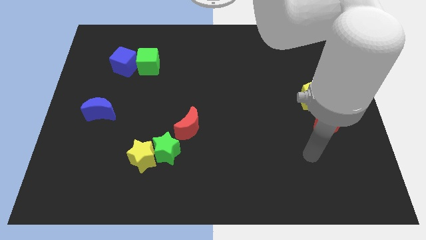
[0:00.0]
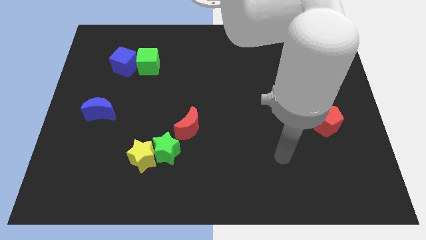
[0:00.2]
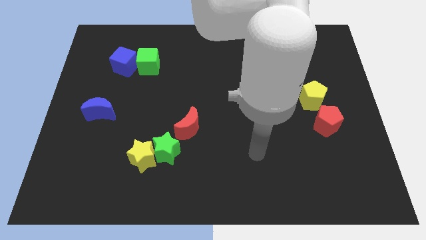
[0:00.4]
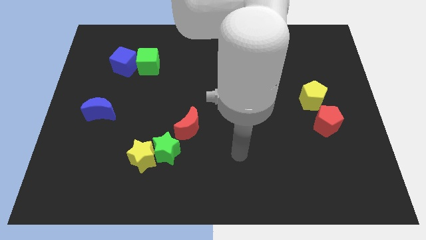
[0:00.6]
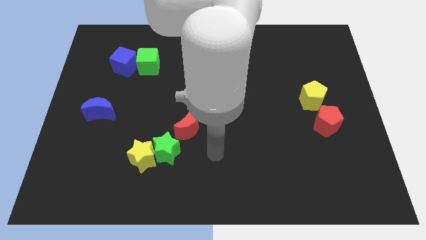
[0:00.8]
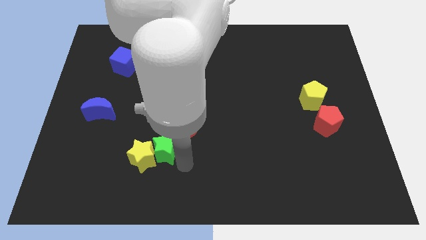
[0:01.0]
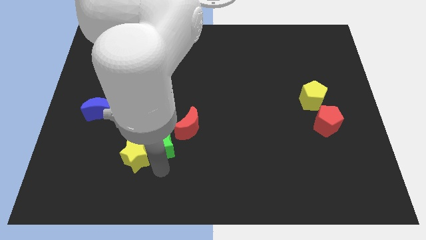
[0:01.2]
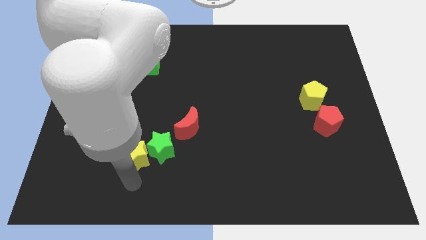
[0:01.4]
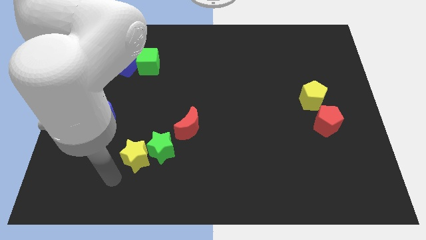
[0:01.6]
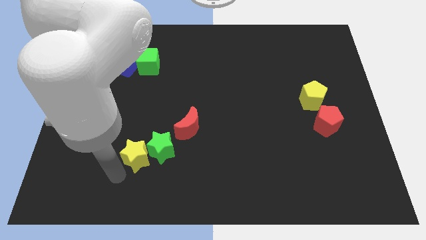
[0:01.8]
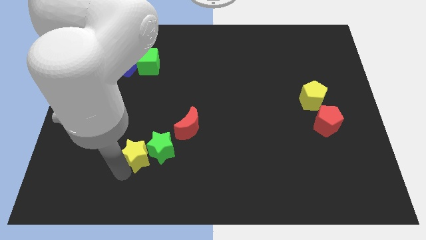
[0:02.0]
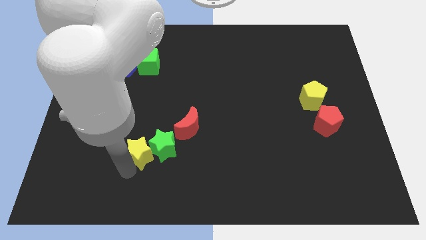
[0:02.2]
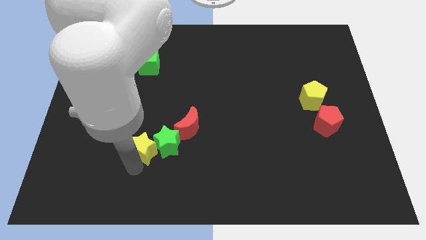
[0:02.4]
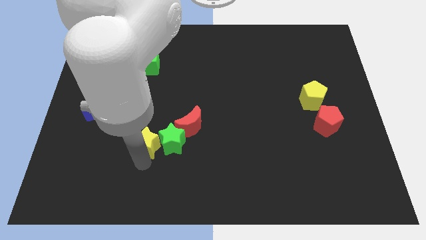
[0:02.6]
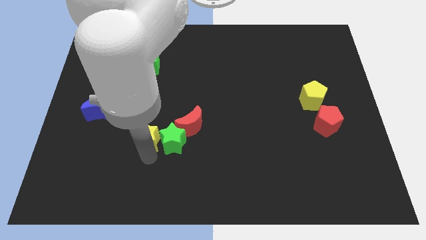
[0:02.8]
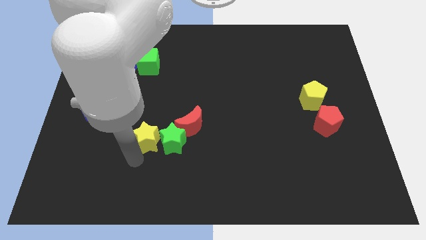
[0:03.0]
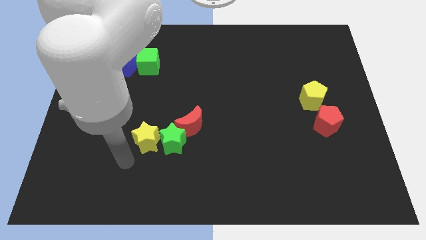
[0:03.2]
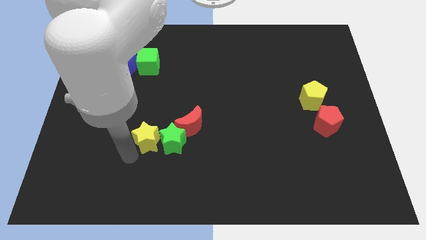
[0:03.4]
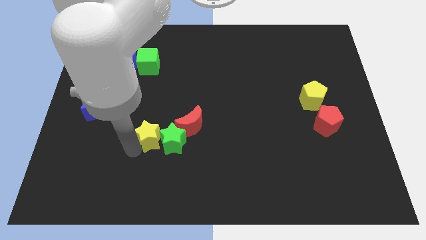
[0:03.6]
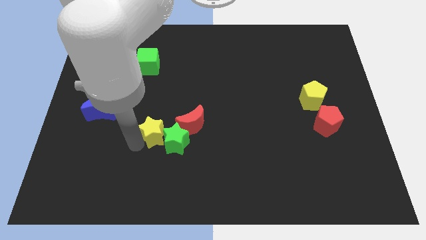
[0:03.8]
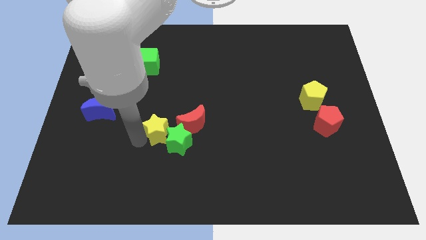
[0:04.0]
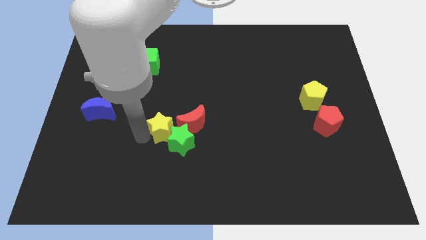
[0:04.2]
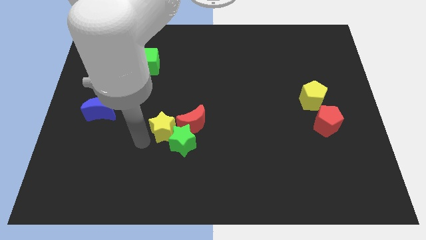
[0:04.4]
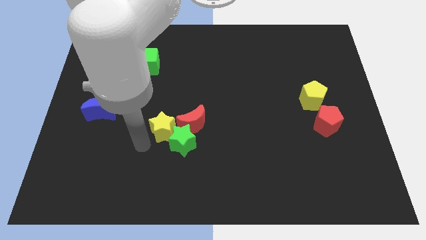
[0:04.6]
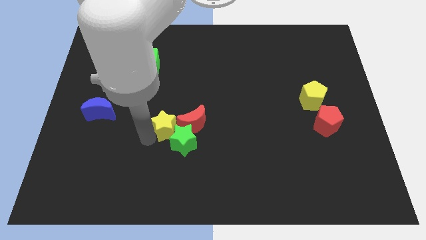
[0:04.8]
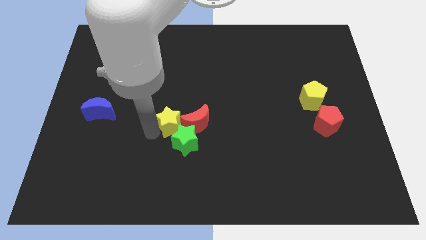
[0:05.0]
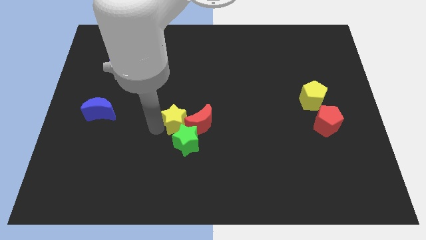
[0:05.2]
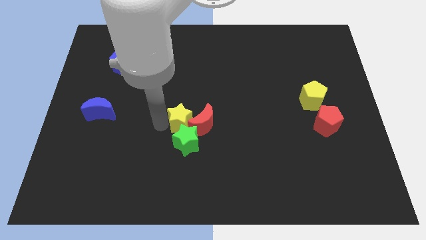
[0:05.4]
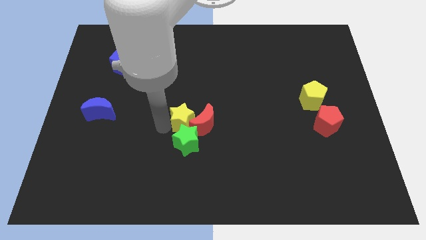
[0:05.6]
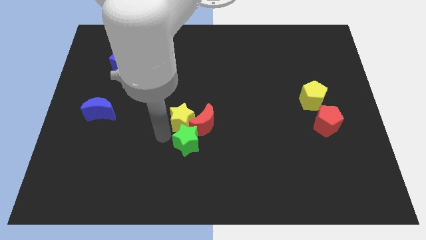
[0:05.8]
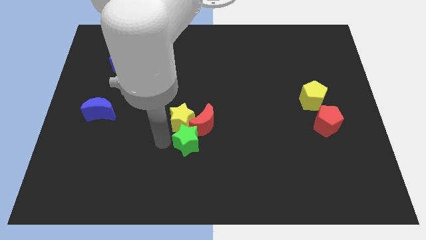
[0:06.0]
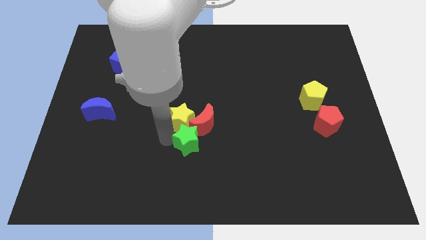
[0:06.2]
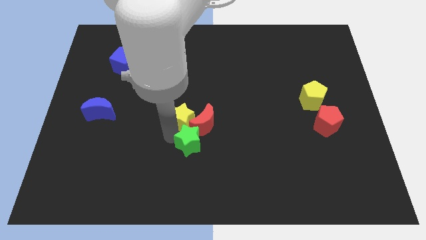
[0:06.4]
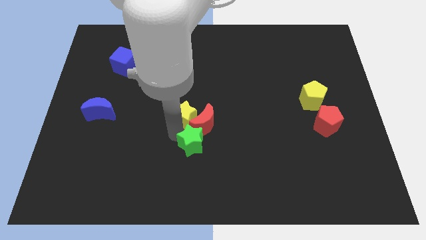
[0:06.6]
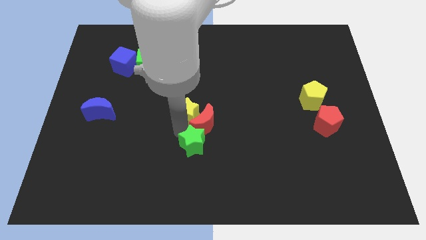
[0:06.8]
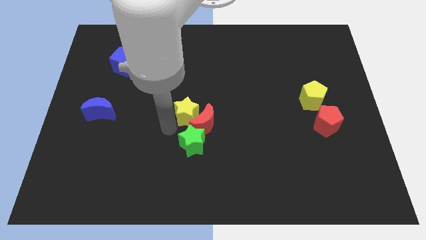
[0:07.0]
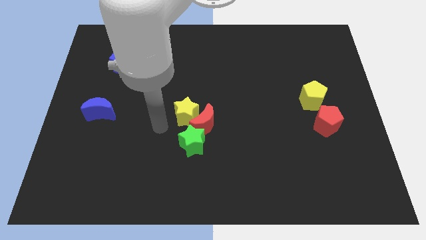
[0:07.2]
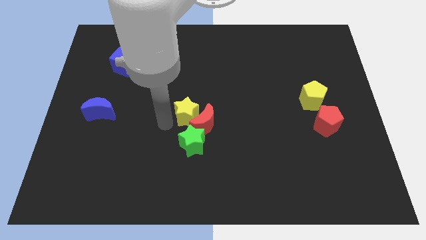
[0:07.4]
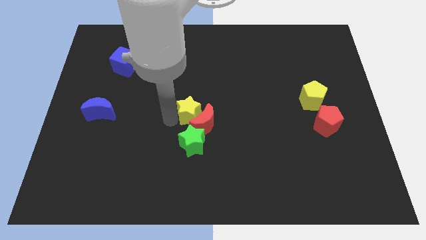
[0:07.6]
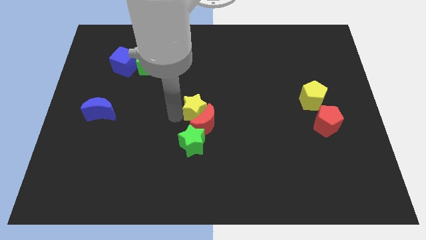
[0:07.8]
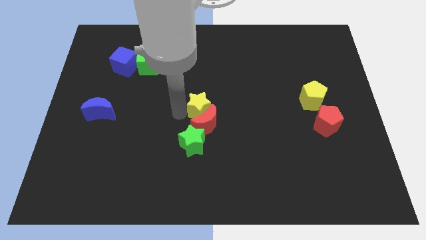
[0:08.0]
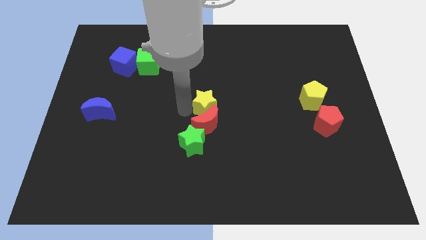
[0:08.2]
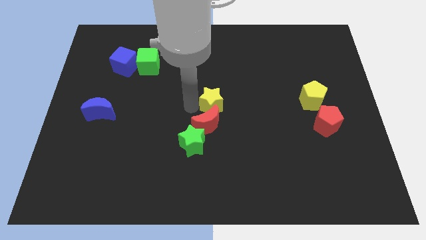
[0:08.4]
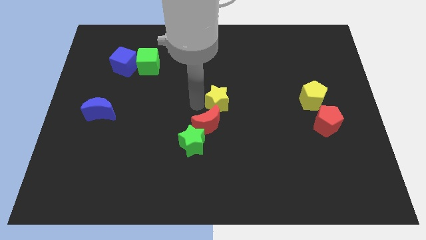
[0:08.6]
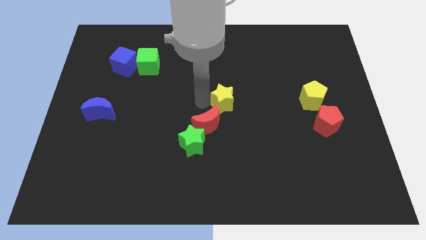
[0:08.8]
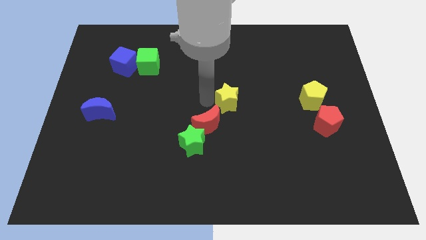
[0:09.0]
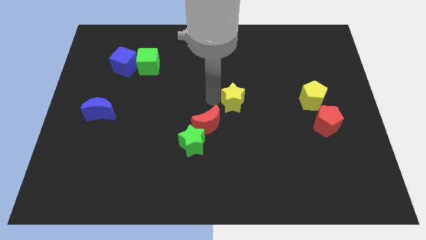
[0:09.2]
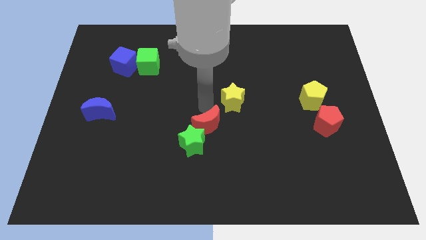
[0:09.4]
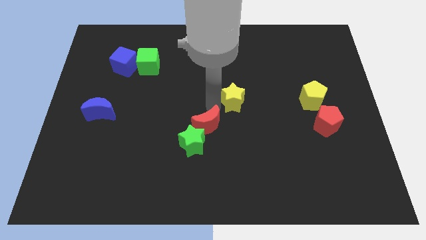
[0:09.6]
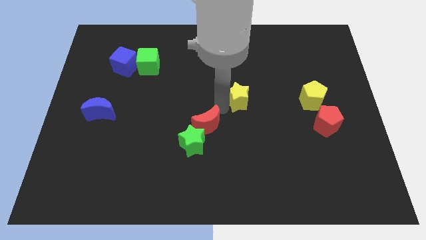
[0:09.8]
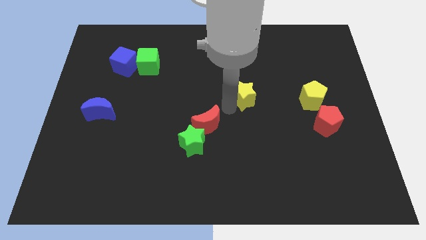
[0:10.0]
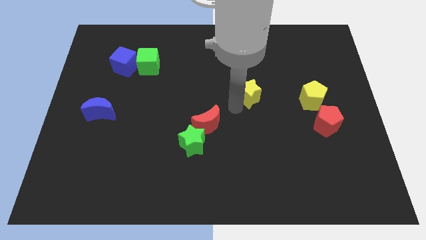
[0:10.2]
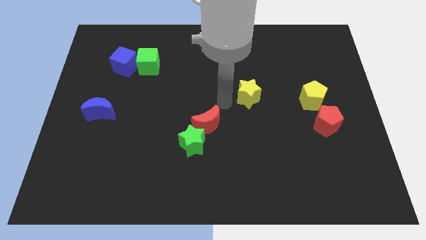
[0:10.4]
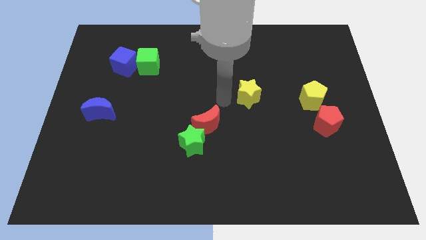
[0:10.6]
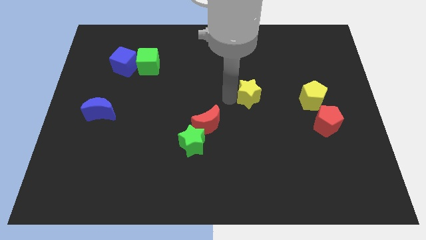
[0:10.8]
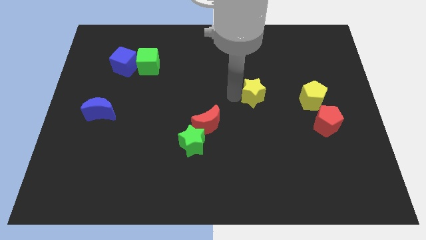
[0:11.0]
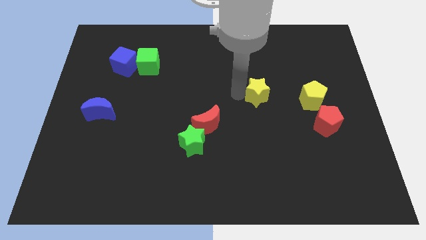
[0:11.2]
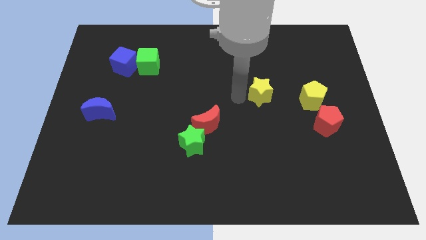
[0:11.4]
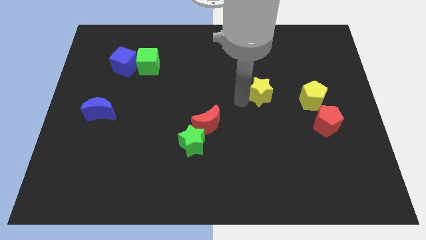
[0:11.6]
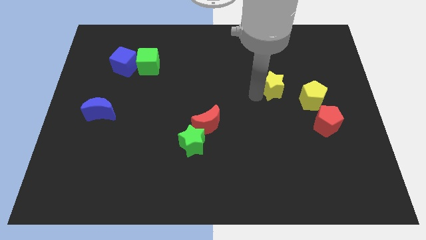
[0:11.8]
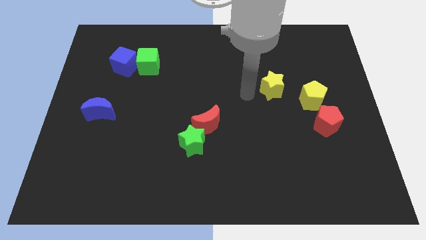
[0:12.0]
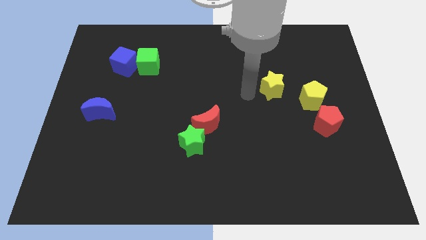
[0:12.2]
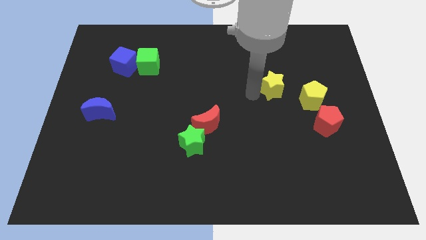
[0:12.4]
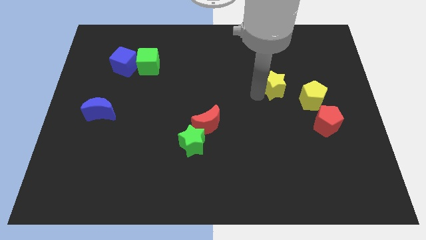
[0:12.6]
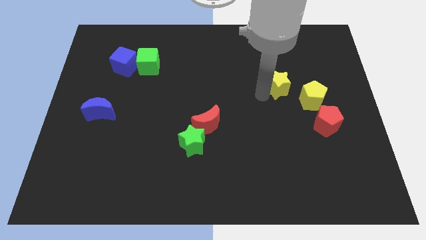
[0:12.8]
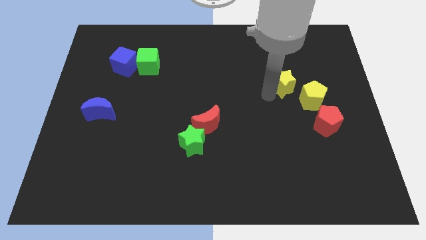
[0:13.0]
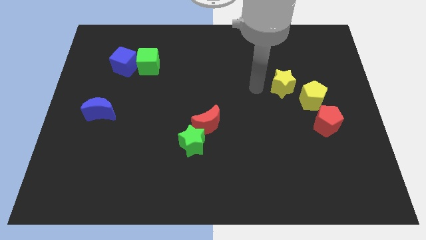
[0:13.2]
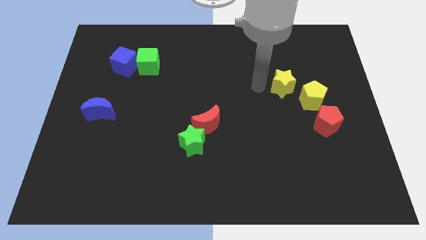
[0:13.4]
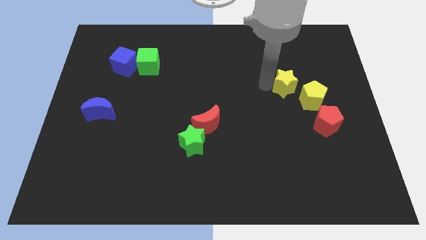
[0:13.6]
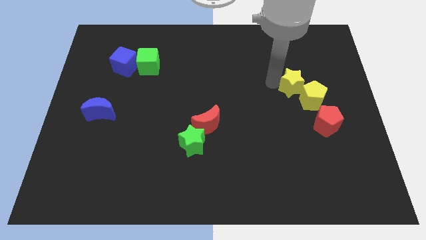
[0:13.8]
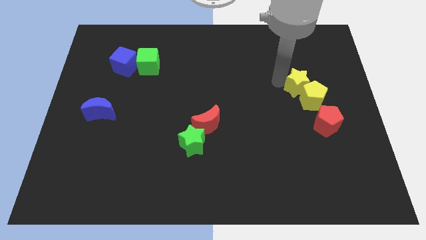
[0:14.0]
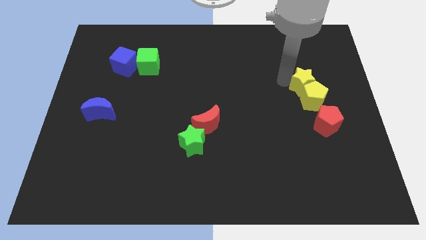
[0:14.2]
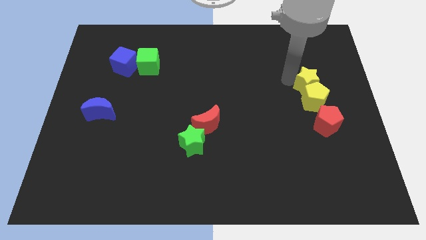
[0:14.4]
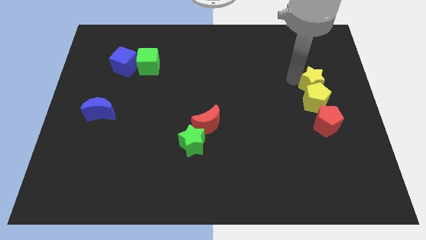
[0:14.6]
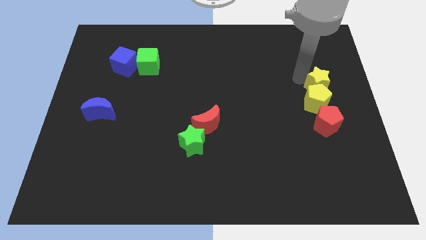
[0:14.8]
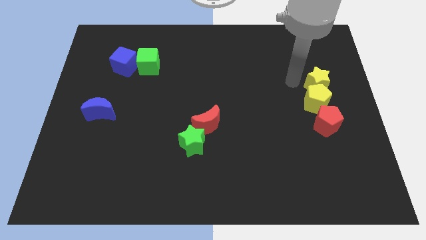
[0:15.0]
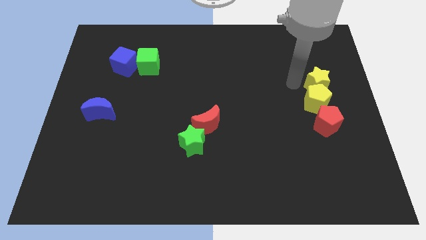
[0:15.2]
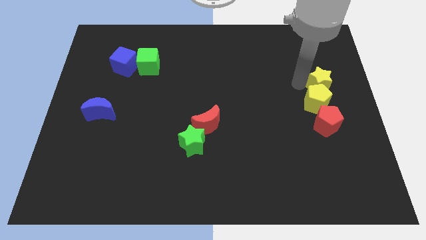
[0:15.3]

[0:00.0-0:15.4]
move the yellow star to the center right
